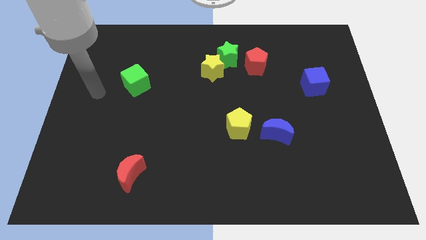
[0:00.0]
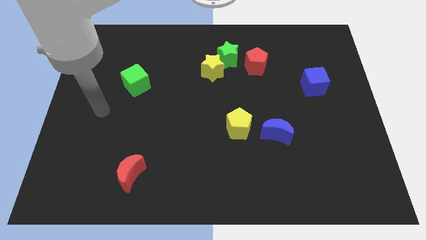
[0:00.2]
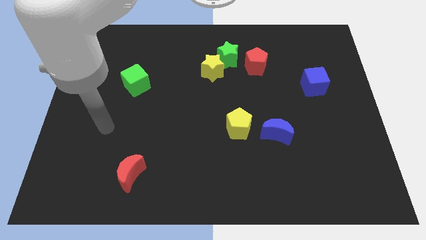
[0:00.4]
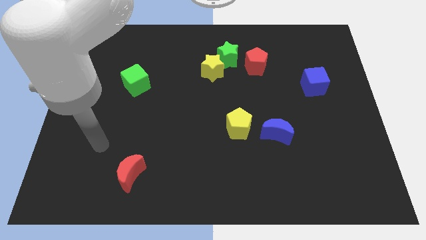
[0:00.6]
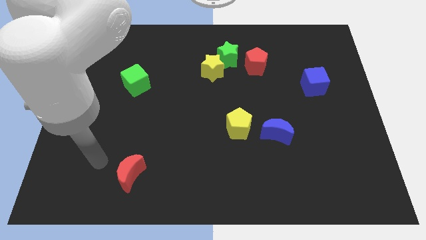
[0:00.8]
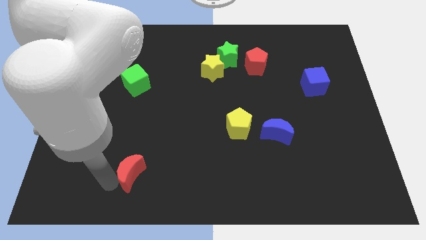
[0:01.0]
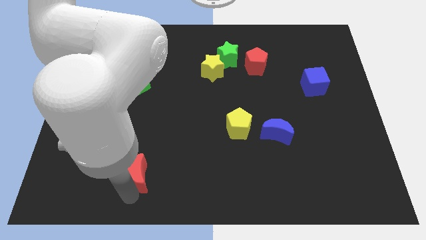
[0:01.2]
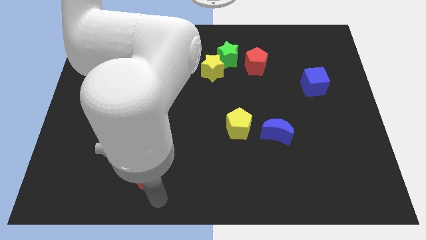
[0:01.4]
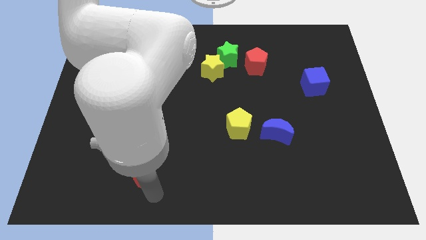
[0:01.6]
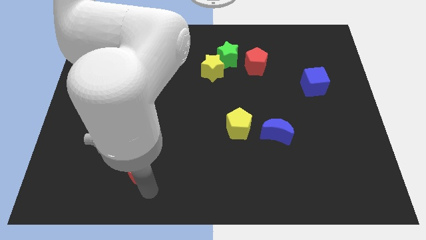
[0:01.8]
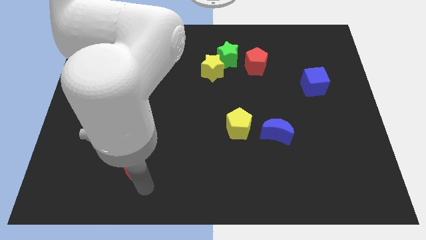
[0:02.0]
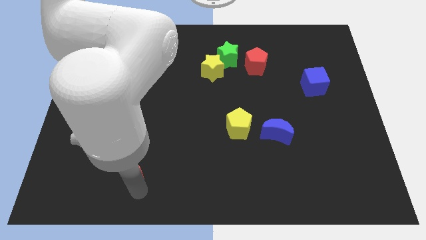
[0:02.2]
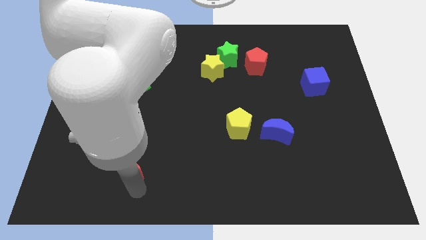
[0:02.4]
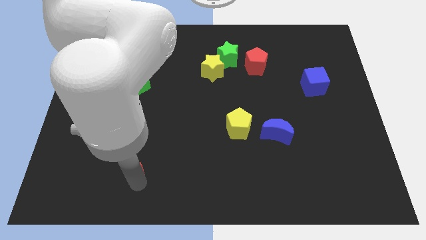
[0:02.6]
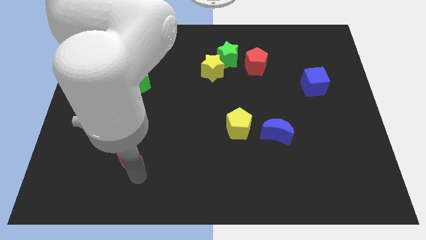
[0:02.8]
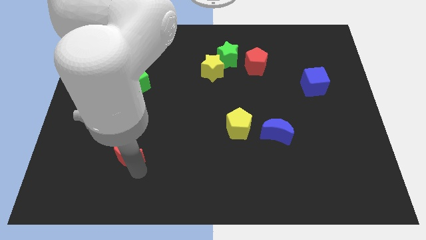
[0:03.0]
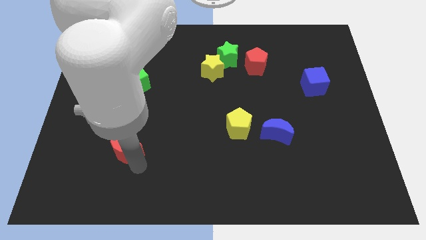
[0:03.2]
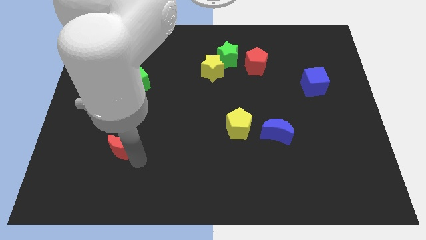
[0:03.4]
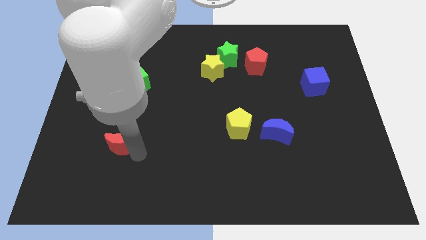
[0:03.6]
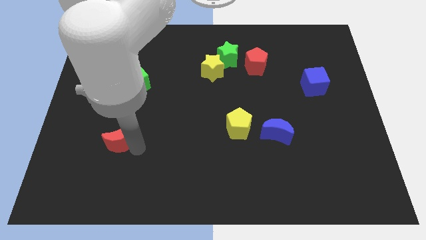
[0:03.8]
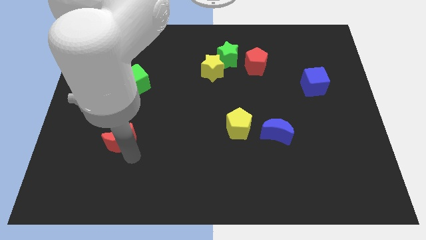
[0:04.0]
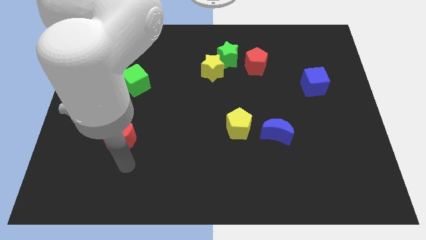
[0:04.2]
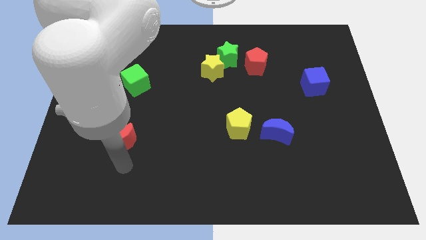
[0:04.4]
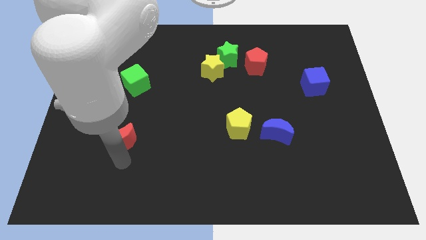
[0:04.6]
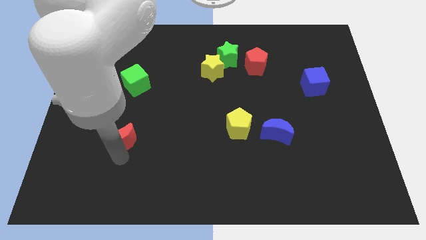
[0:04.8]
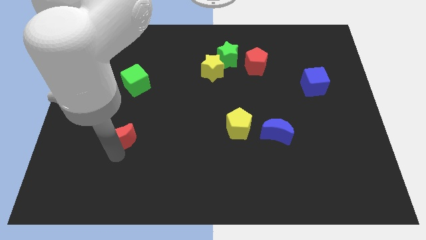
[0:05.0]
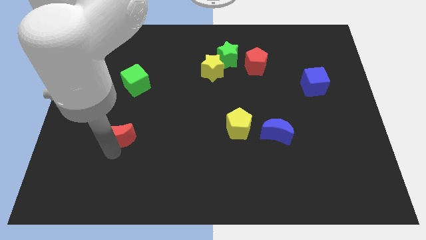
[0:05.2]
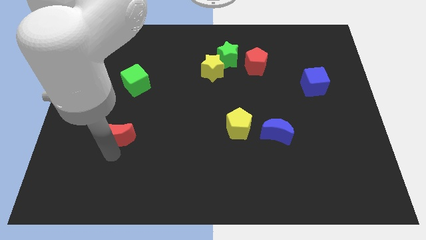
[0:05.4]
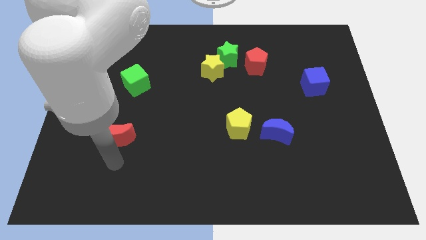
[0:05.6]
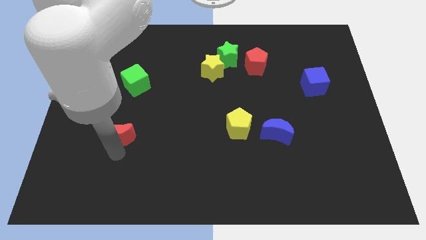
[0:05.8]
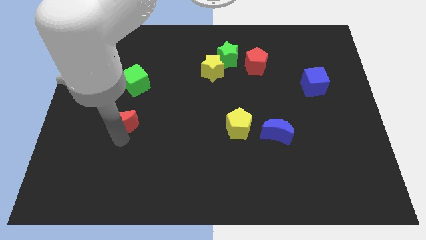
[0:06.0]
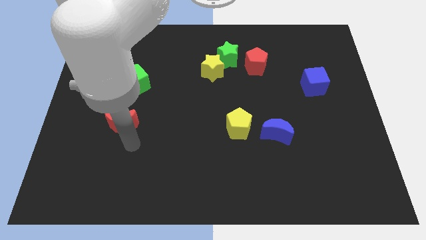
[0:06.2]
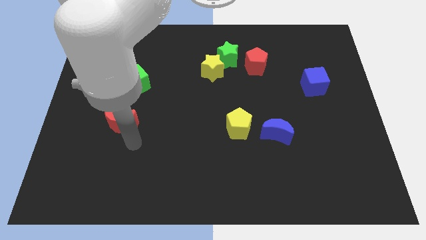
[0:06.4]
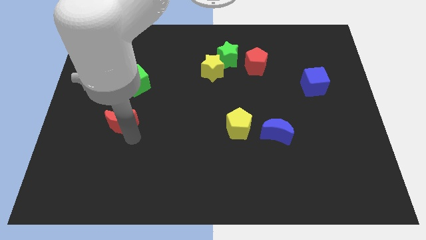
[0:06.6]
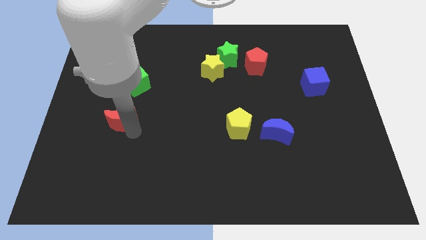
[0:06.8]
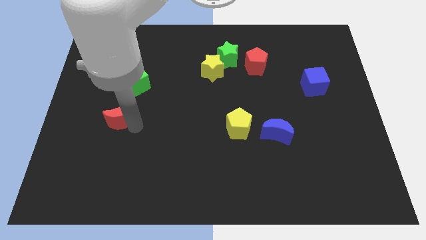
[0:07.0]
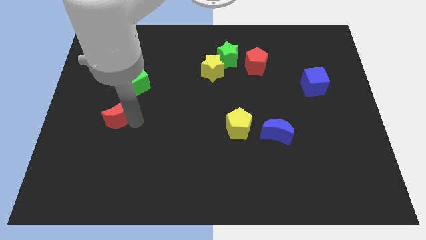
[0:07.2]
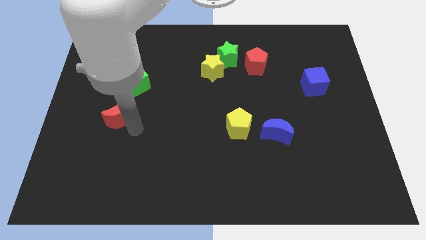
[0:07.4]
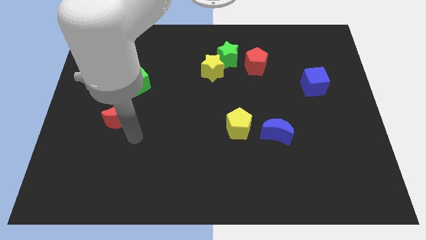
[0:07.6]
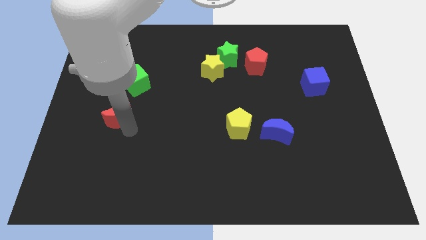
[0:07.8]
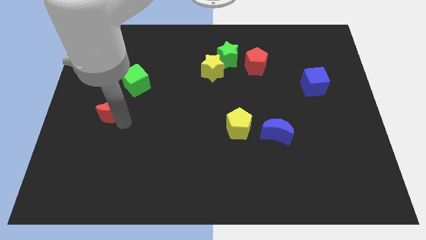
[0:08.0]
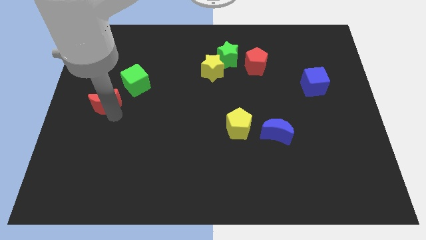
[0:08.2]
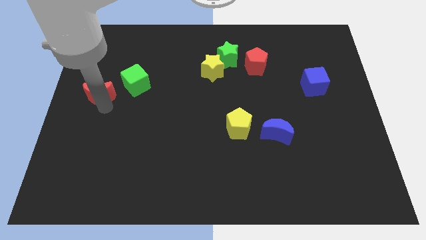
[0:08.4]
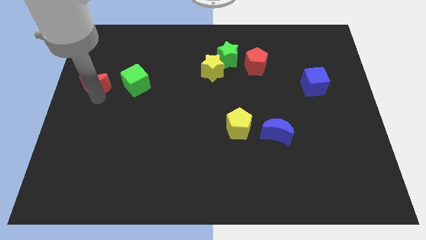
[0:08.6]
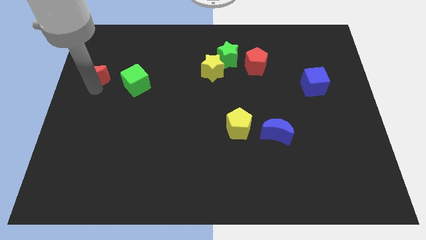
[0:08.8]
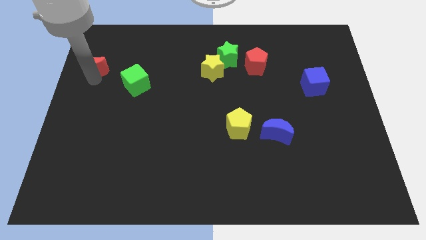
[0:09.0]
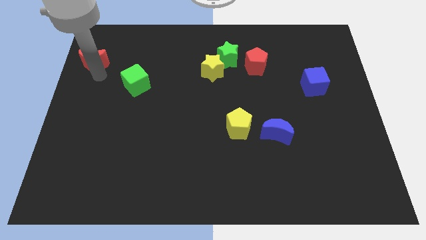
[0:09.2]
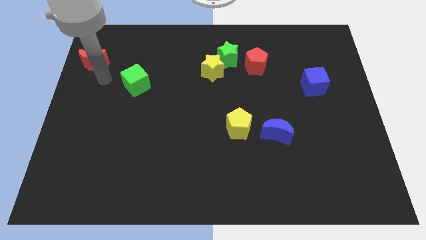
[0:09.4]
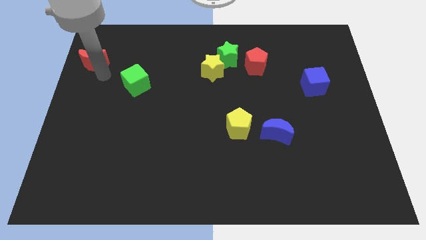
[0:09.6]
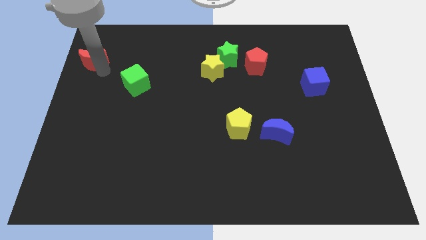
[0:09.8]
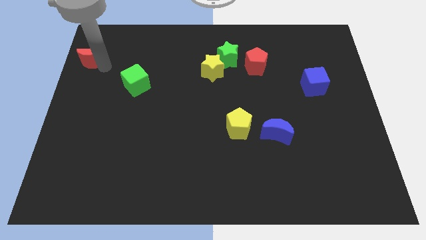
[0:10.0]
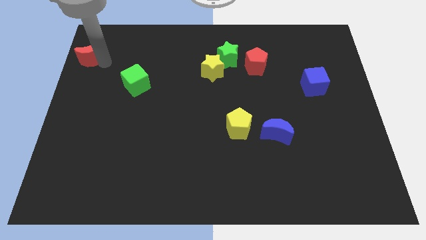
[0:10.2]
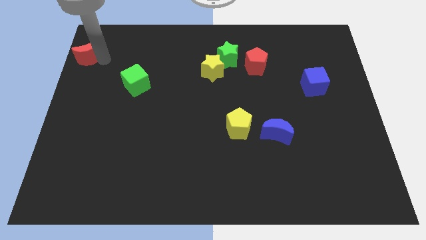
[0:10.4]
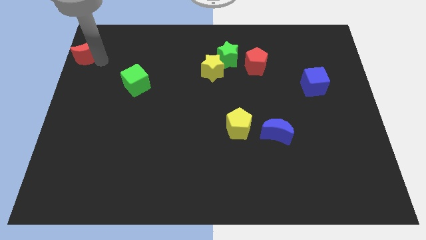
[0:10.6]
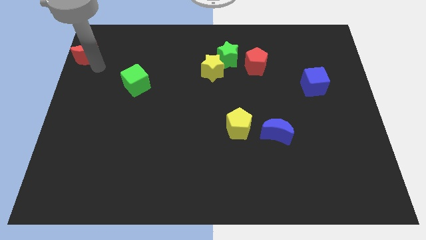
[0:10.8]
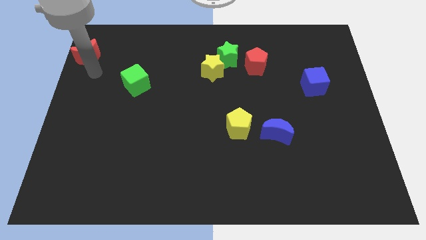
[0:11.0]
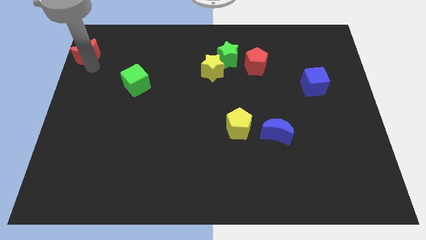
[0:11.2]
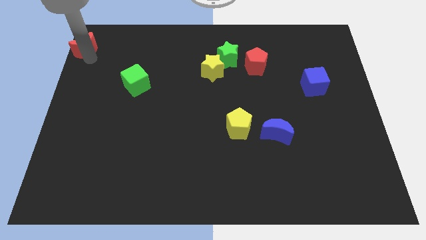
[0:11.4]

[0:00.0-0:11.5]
move the red moon to the top left
